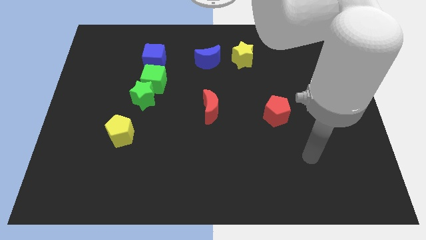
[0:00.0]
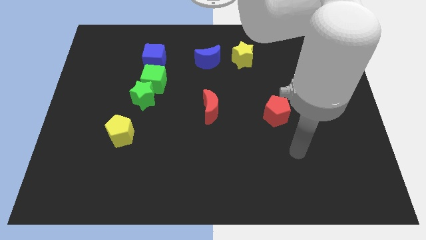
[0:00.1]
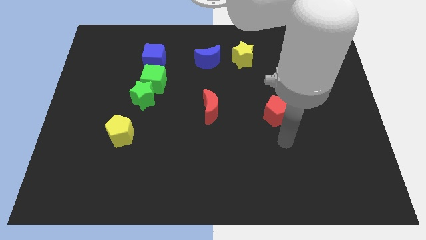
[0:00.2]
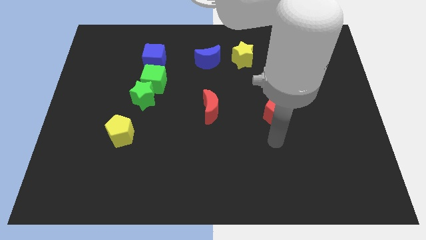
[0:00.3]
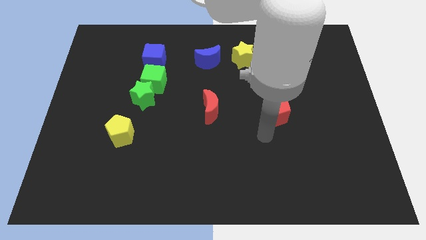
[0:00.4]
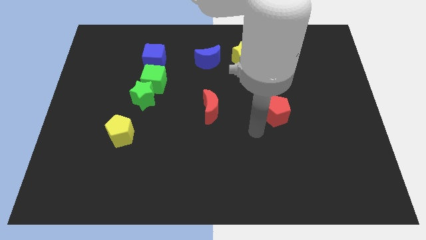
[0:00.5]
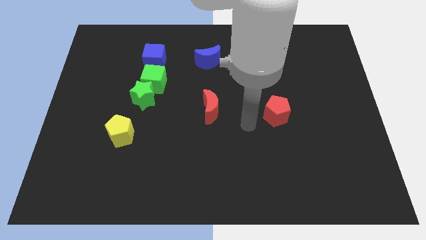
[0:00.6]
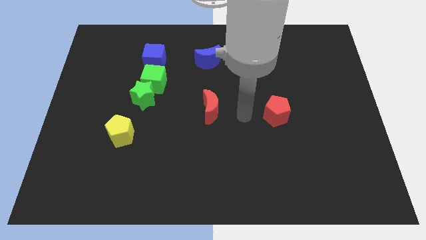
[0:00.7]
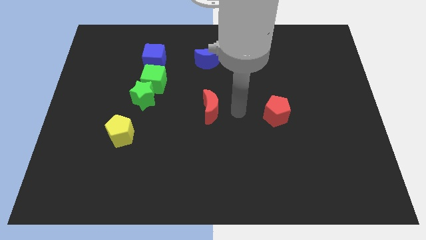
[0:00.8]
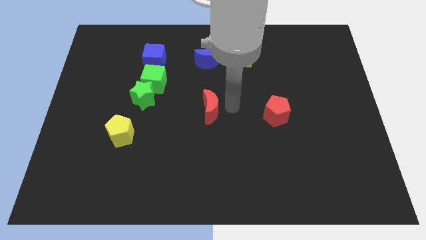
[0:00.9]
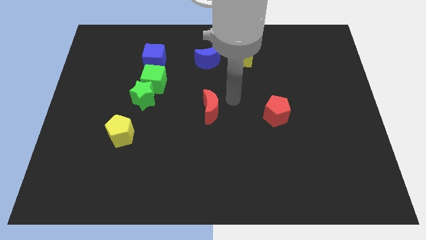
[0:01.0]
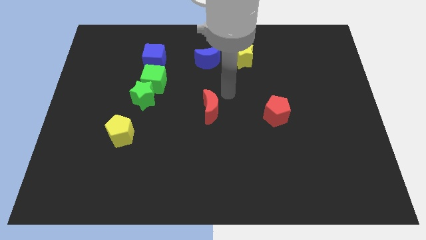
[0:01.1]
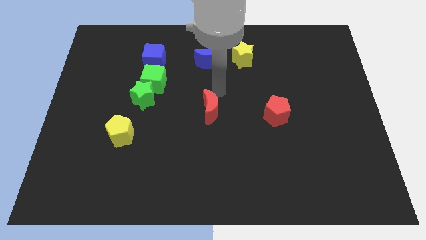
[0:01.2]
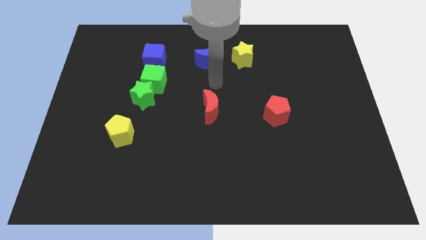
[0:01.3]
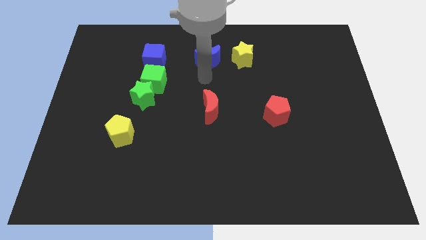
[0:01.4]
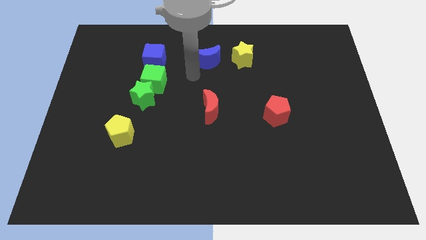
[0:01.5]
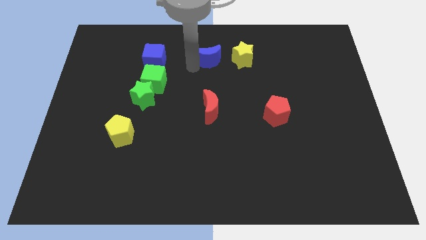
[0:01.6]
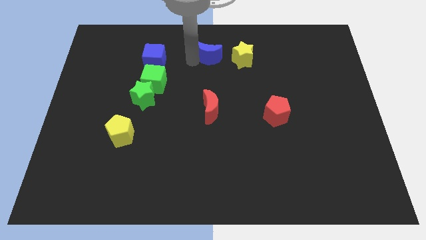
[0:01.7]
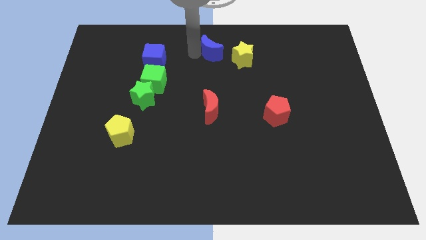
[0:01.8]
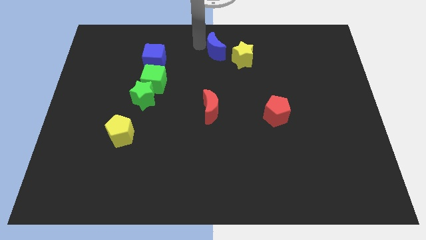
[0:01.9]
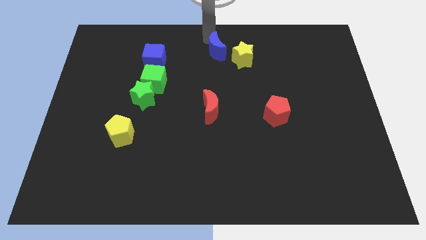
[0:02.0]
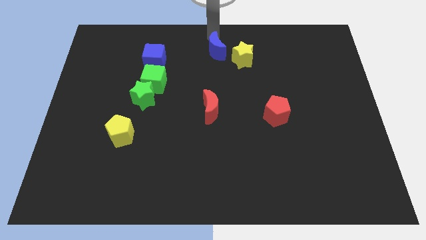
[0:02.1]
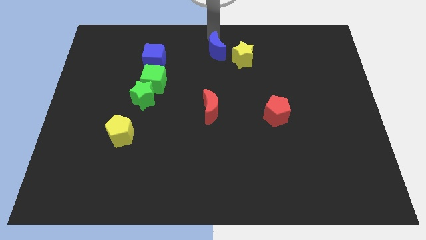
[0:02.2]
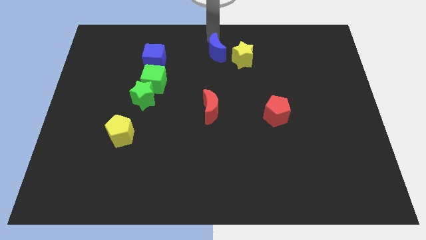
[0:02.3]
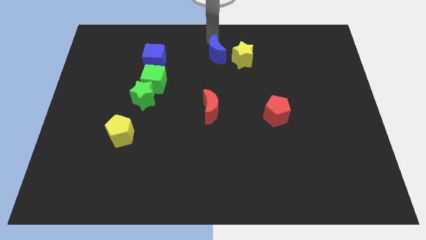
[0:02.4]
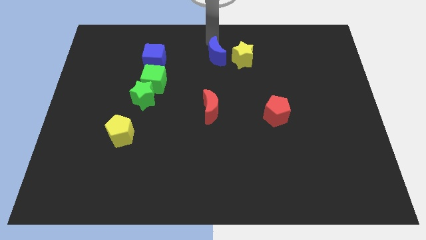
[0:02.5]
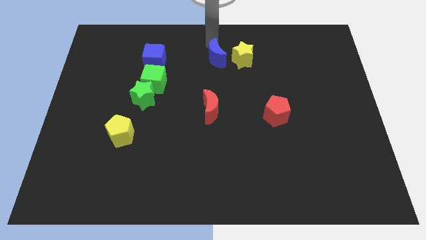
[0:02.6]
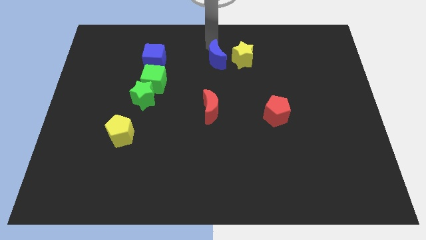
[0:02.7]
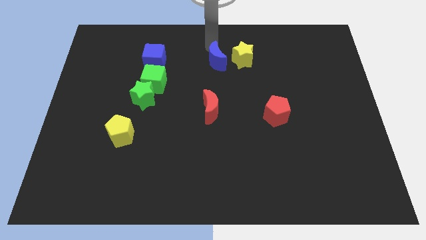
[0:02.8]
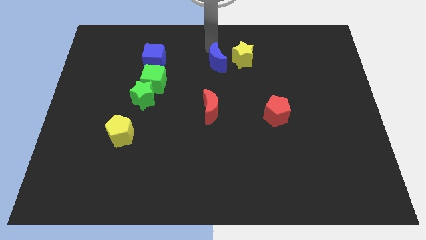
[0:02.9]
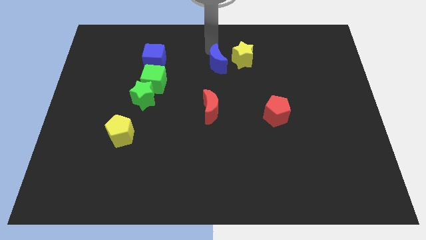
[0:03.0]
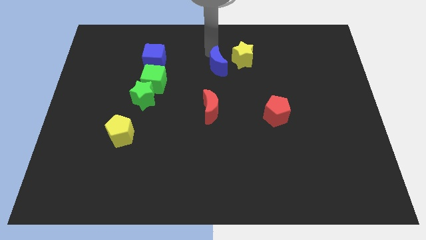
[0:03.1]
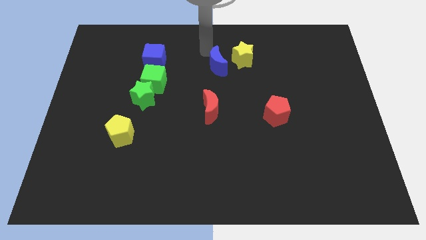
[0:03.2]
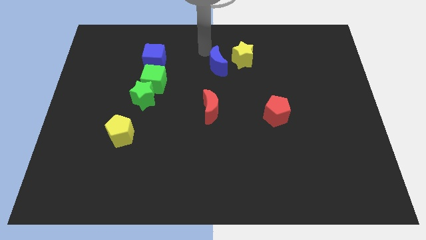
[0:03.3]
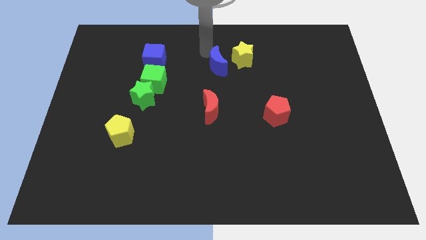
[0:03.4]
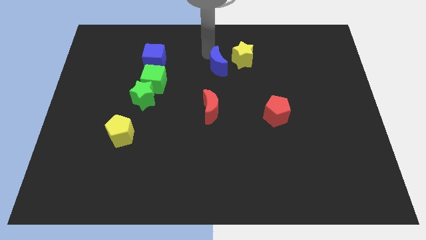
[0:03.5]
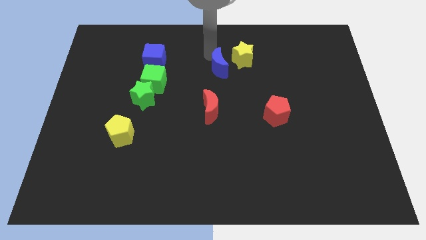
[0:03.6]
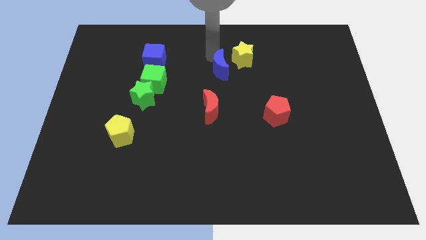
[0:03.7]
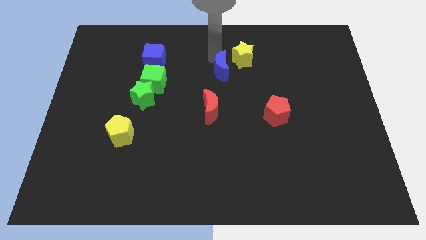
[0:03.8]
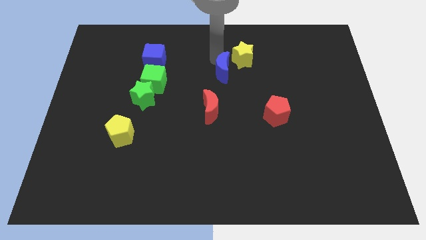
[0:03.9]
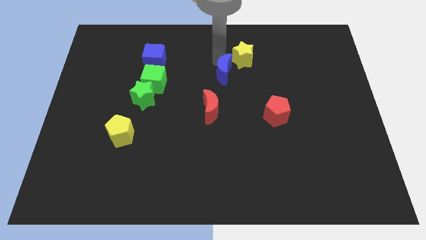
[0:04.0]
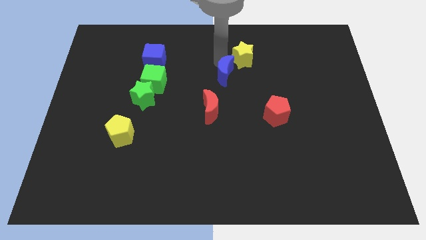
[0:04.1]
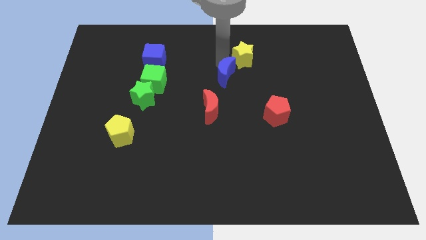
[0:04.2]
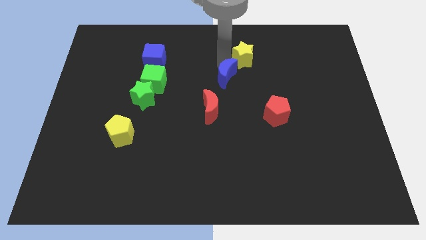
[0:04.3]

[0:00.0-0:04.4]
push the blue moon downwards and then right a bit

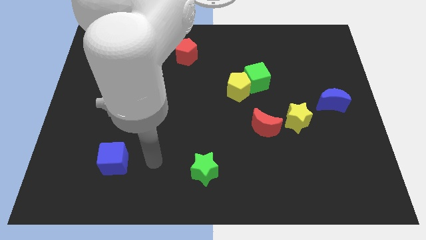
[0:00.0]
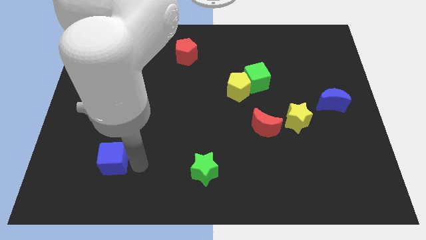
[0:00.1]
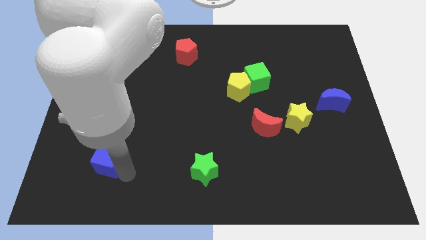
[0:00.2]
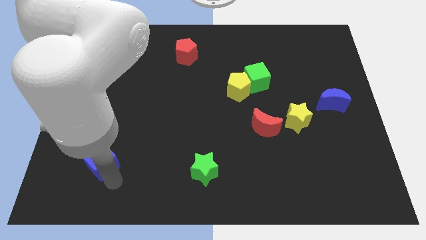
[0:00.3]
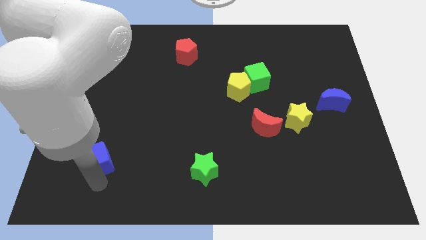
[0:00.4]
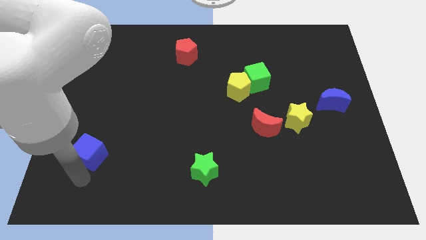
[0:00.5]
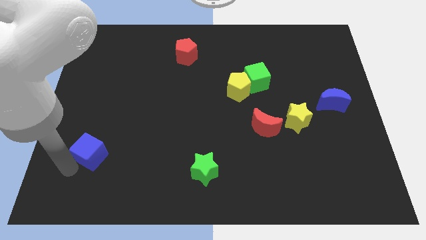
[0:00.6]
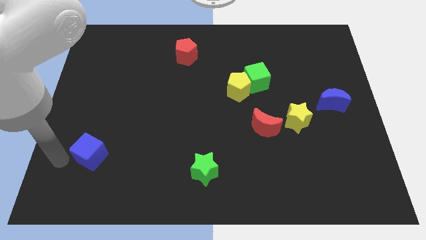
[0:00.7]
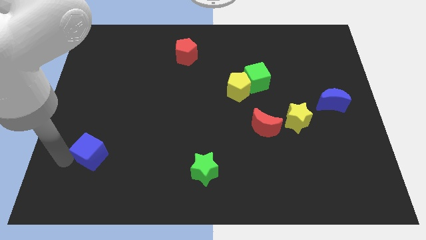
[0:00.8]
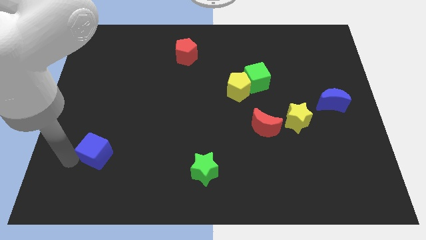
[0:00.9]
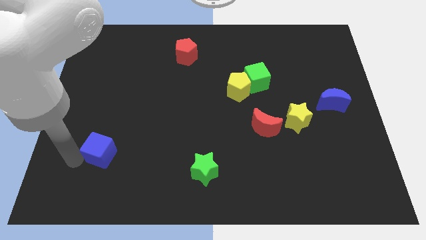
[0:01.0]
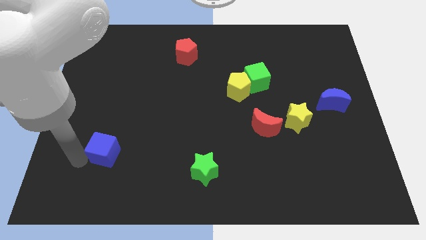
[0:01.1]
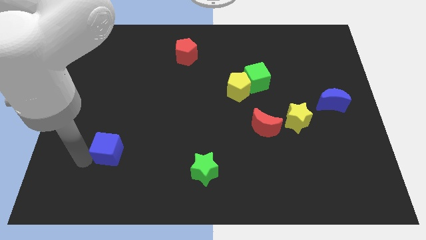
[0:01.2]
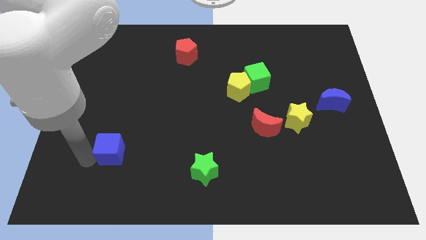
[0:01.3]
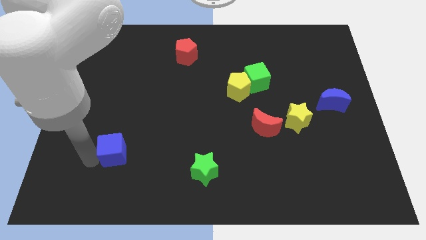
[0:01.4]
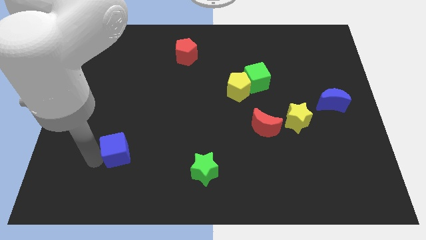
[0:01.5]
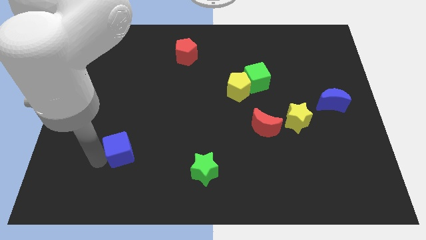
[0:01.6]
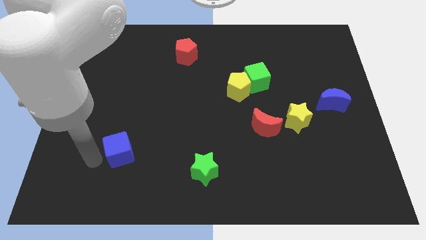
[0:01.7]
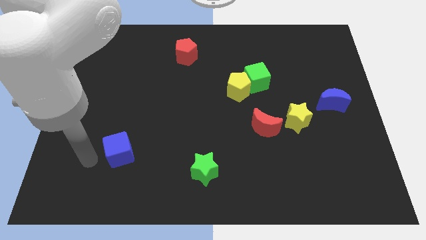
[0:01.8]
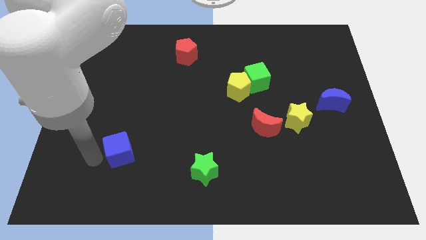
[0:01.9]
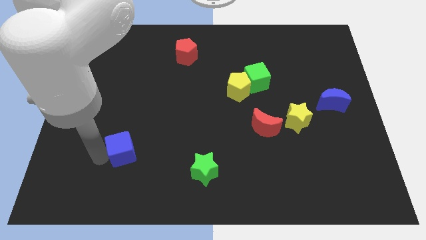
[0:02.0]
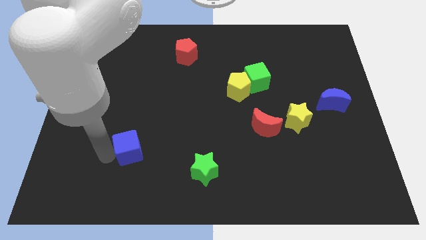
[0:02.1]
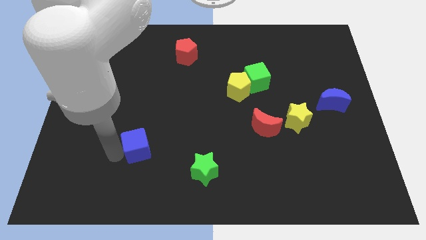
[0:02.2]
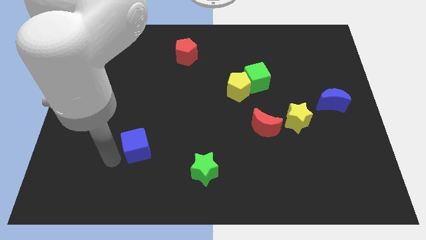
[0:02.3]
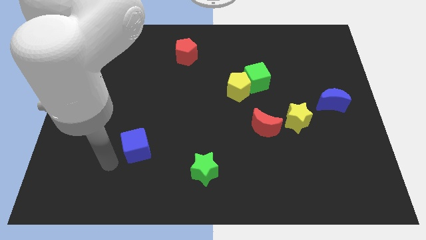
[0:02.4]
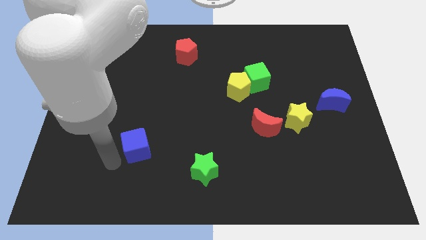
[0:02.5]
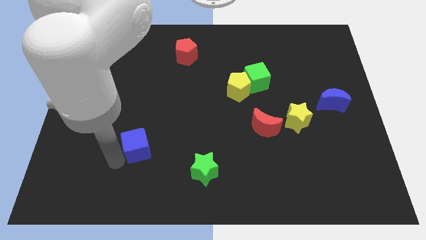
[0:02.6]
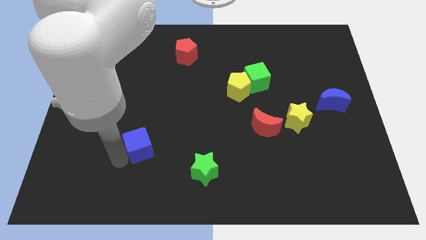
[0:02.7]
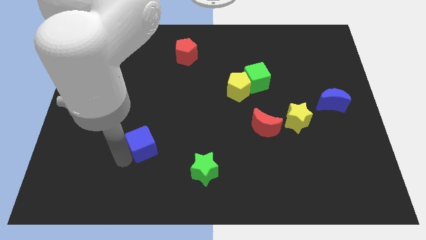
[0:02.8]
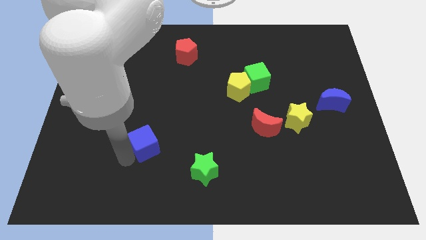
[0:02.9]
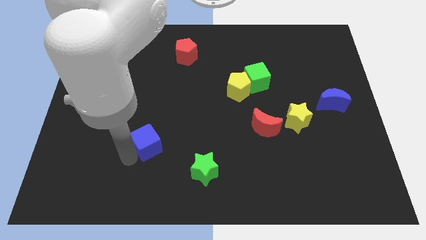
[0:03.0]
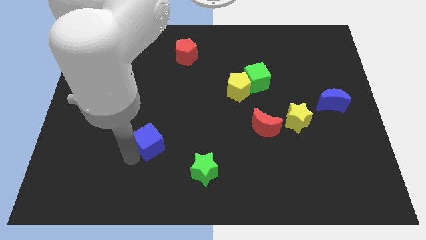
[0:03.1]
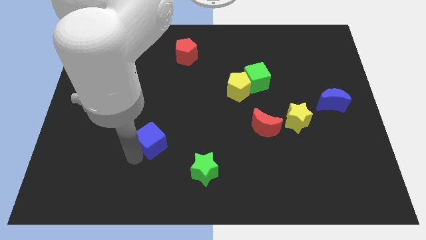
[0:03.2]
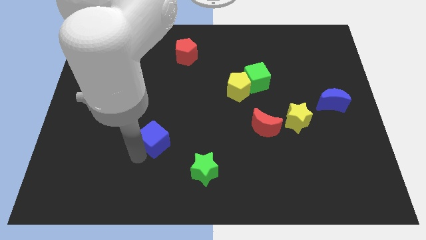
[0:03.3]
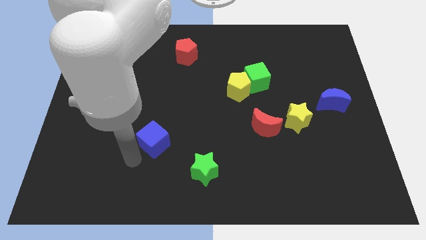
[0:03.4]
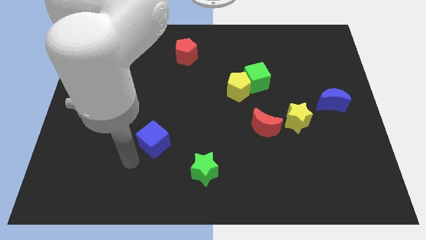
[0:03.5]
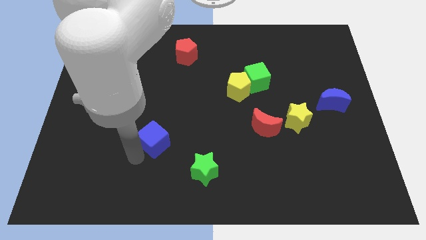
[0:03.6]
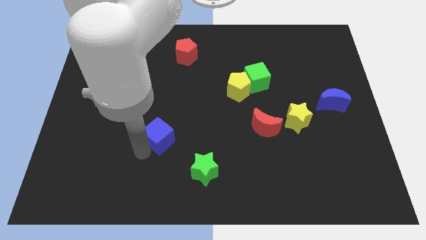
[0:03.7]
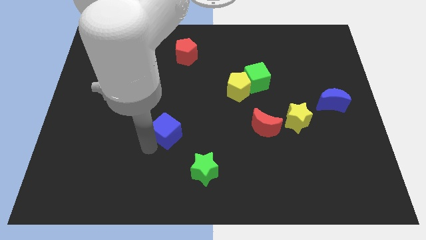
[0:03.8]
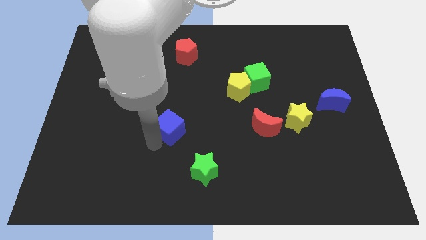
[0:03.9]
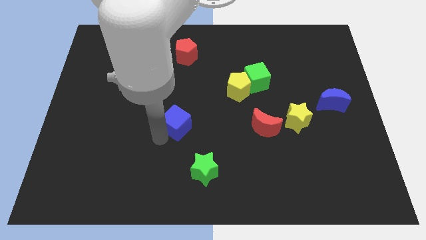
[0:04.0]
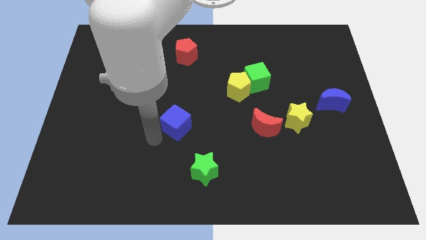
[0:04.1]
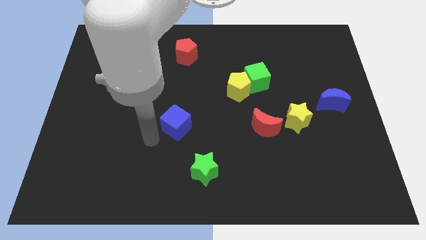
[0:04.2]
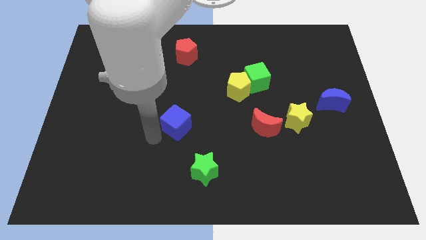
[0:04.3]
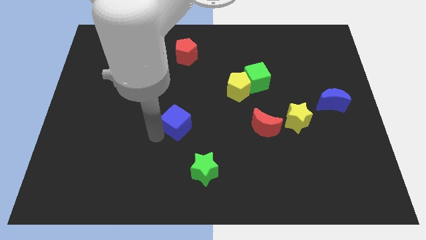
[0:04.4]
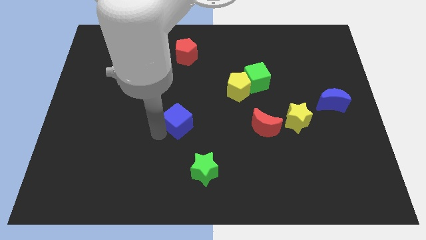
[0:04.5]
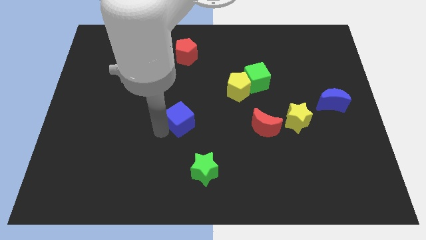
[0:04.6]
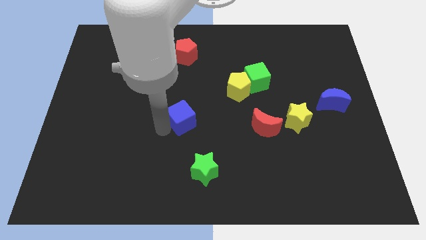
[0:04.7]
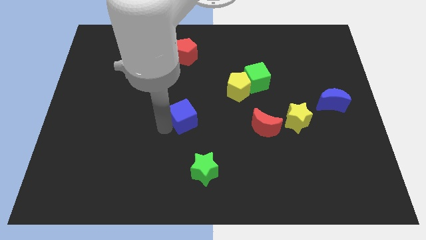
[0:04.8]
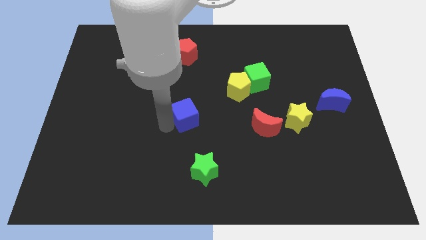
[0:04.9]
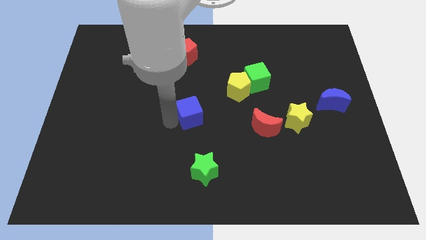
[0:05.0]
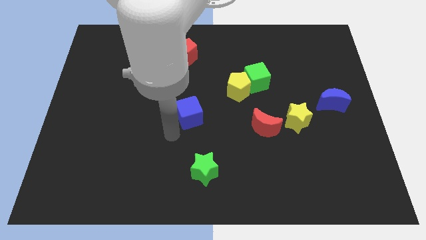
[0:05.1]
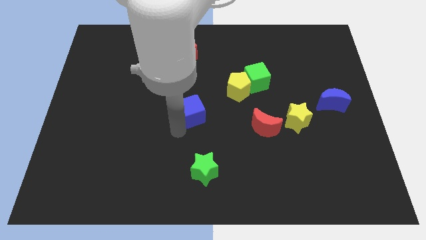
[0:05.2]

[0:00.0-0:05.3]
slide the blue cube upwards and then right
